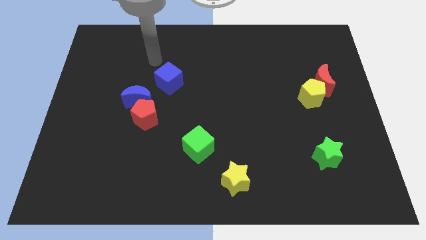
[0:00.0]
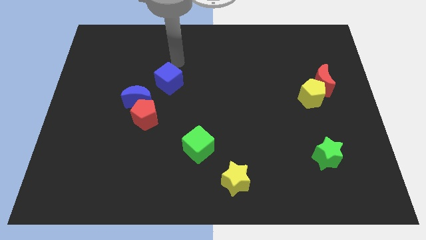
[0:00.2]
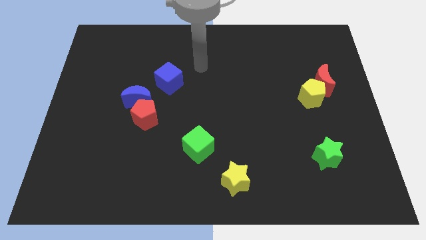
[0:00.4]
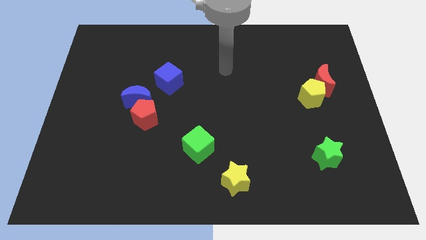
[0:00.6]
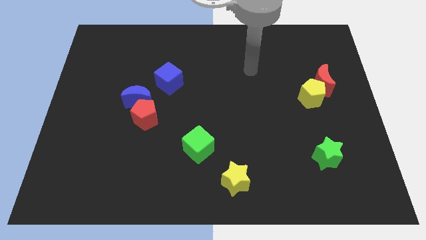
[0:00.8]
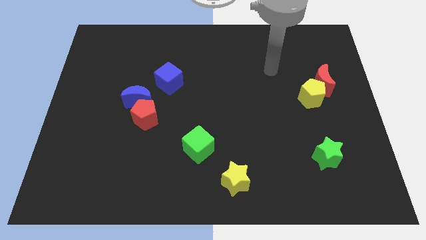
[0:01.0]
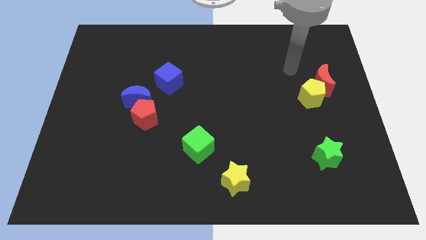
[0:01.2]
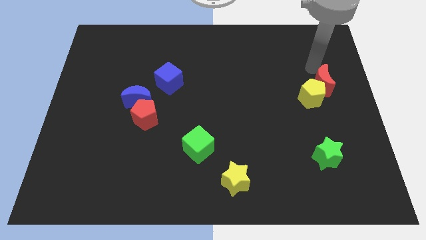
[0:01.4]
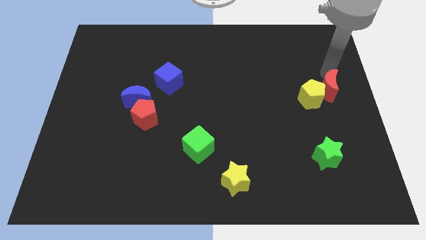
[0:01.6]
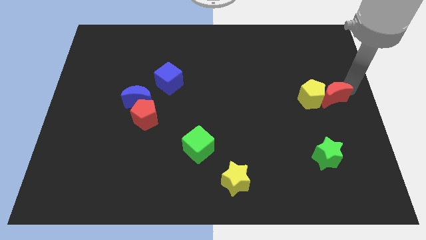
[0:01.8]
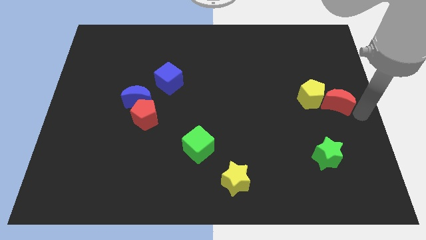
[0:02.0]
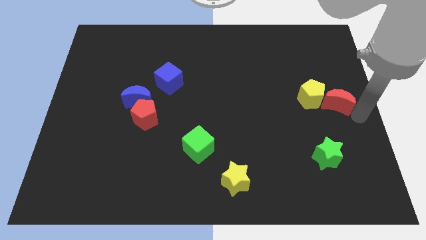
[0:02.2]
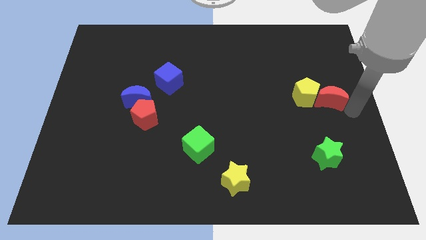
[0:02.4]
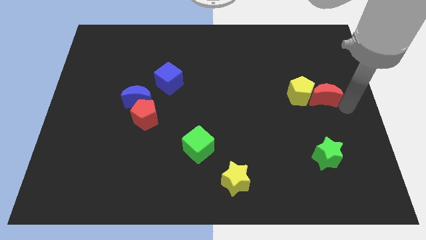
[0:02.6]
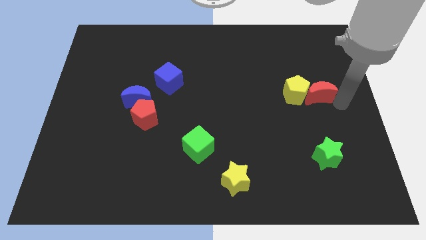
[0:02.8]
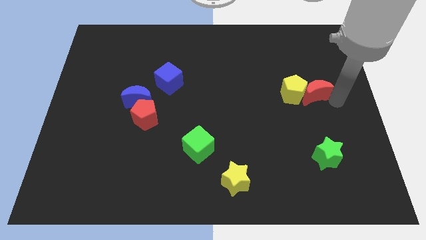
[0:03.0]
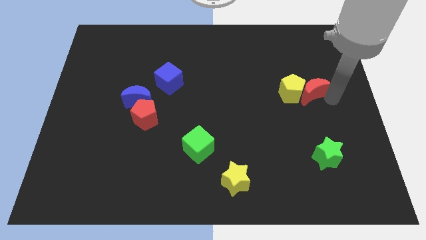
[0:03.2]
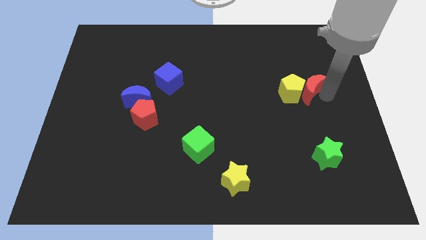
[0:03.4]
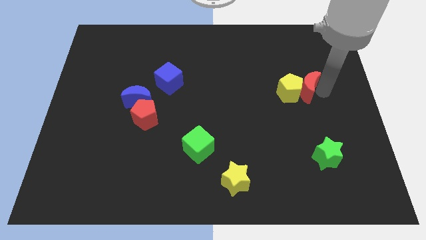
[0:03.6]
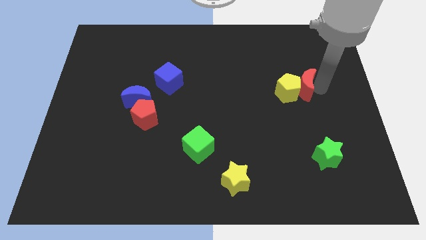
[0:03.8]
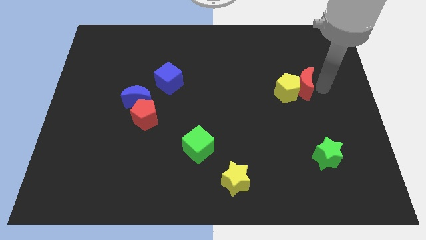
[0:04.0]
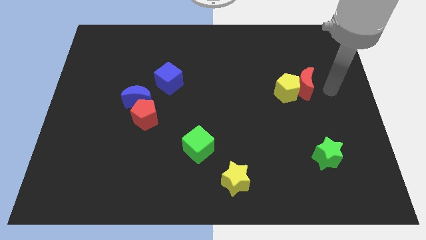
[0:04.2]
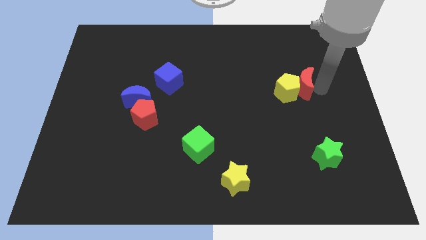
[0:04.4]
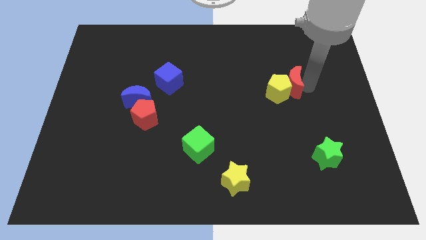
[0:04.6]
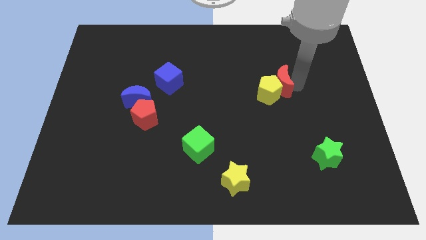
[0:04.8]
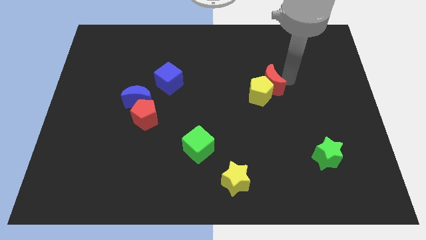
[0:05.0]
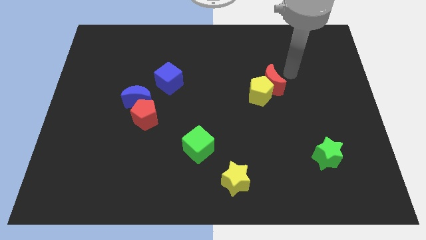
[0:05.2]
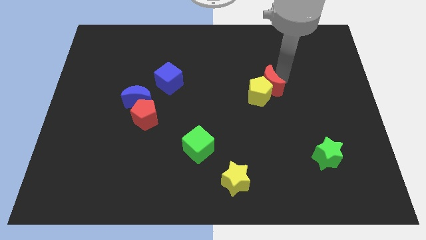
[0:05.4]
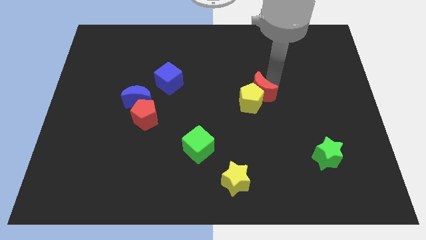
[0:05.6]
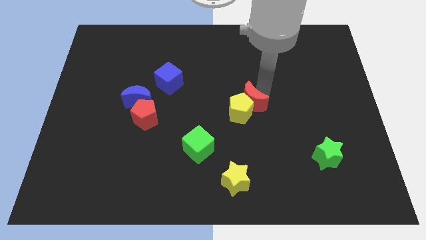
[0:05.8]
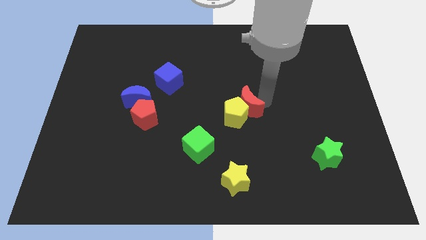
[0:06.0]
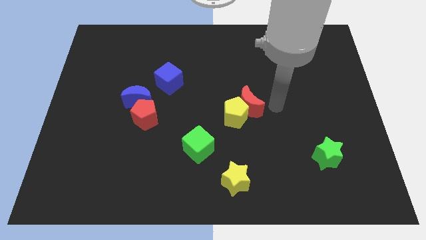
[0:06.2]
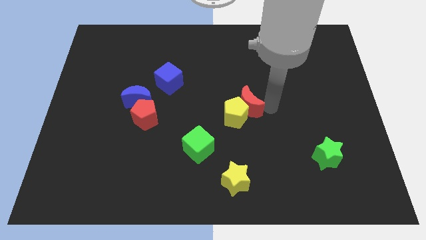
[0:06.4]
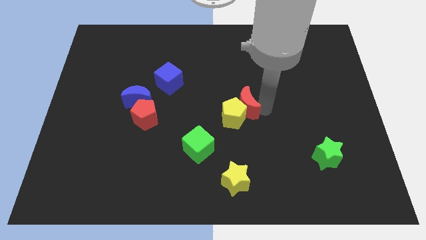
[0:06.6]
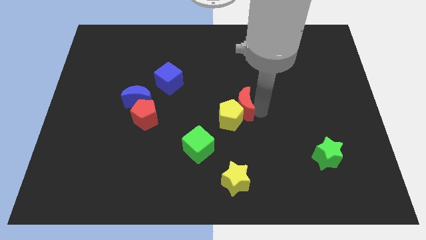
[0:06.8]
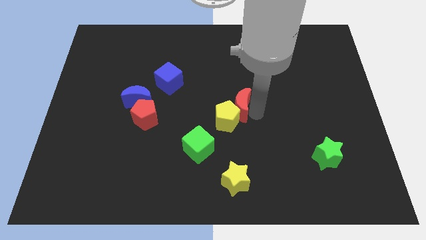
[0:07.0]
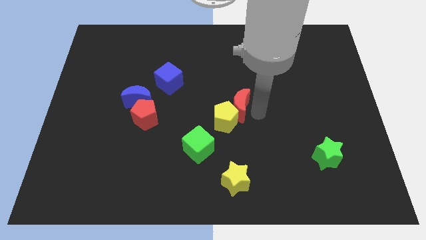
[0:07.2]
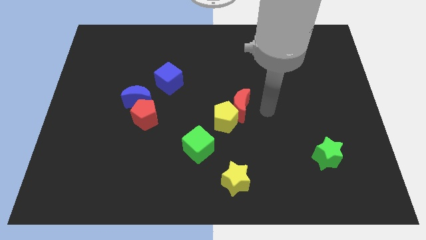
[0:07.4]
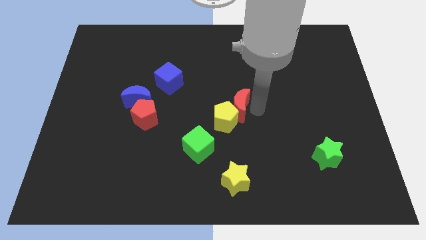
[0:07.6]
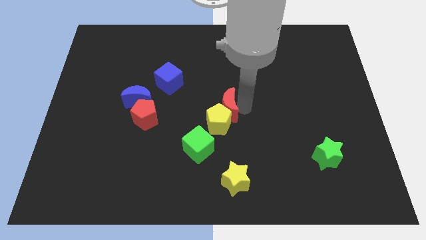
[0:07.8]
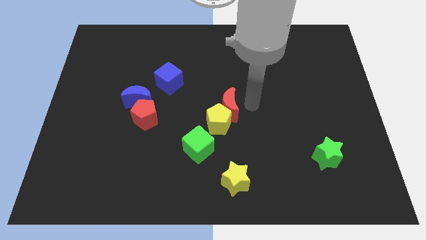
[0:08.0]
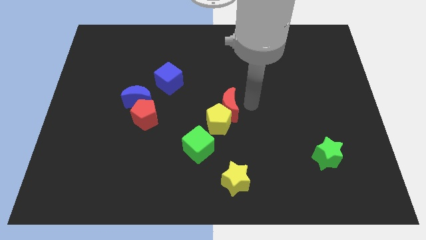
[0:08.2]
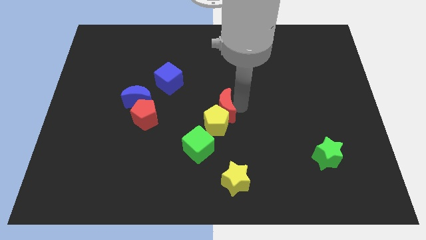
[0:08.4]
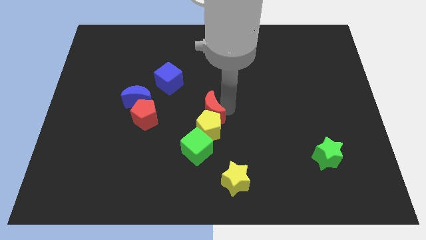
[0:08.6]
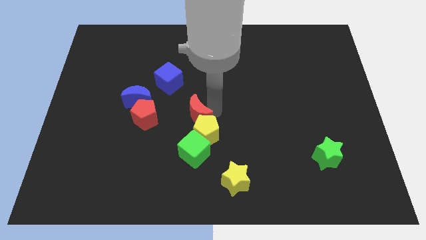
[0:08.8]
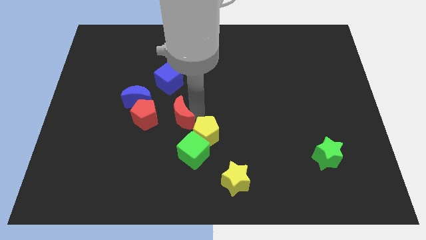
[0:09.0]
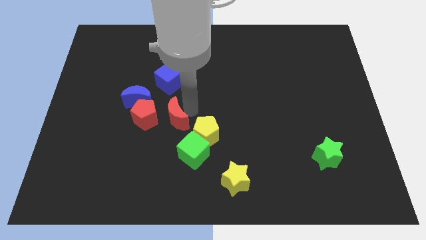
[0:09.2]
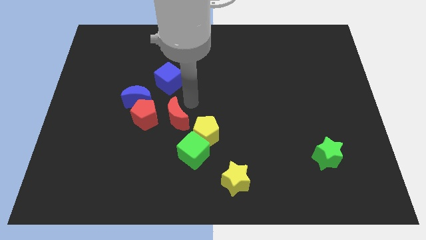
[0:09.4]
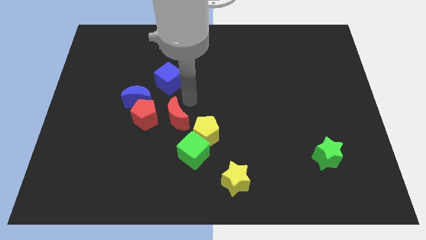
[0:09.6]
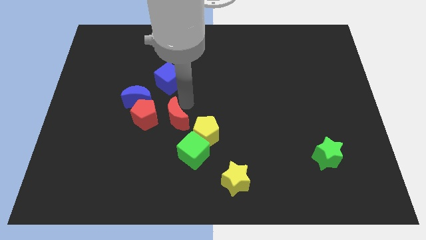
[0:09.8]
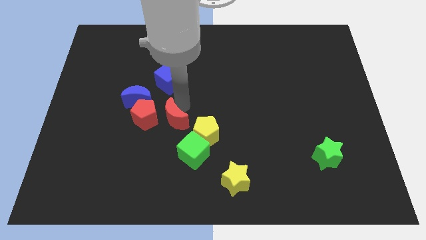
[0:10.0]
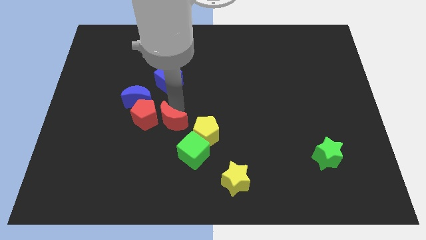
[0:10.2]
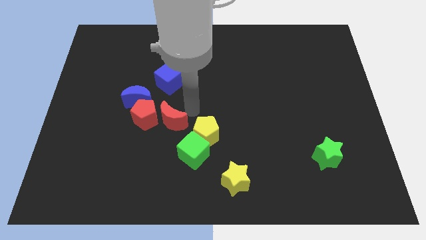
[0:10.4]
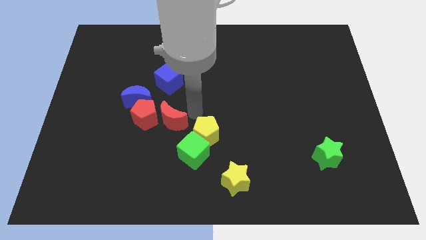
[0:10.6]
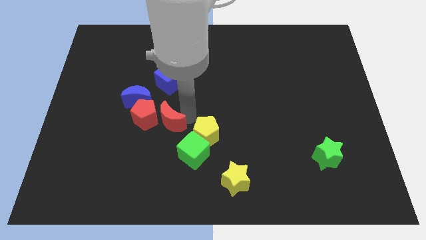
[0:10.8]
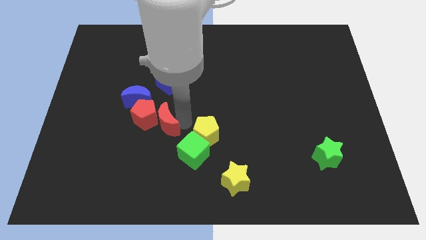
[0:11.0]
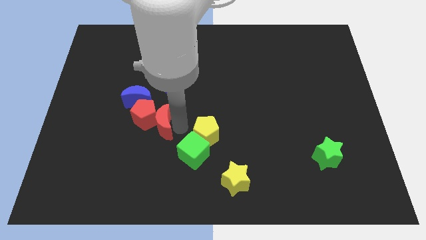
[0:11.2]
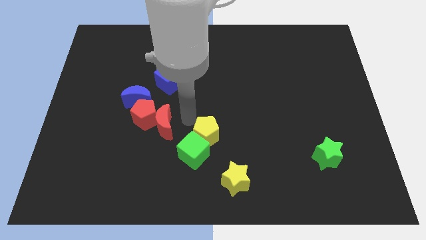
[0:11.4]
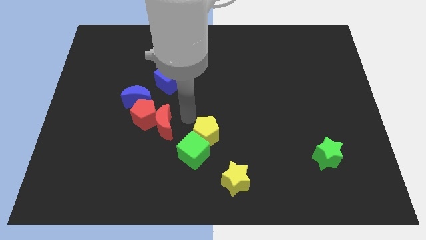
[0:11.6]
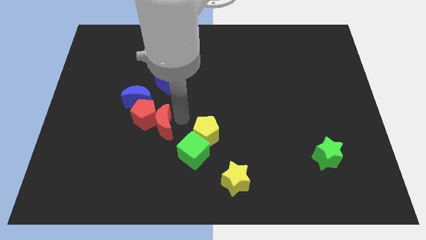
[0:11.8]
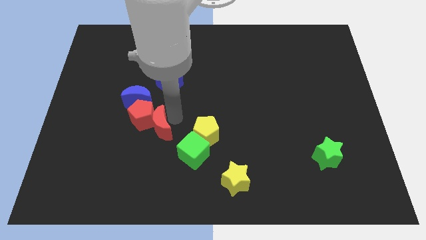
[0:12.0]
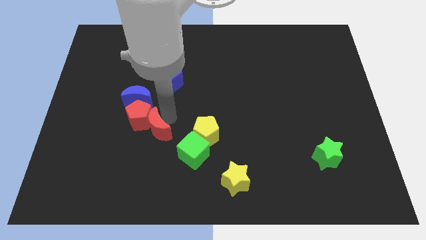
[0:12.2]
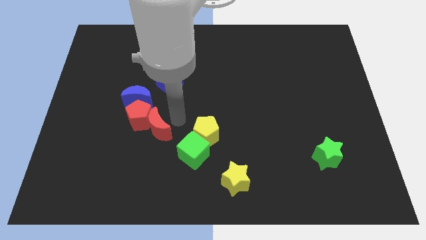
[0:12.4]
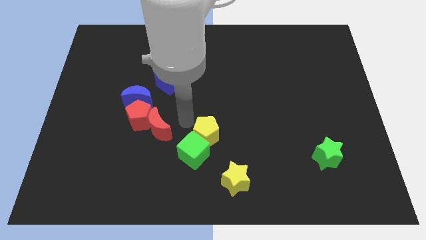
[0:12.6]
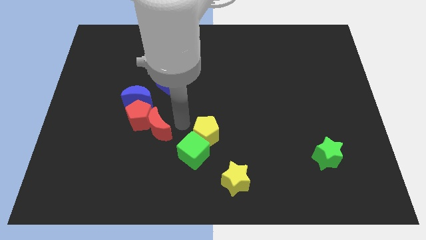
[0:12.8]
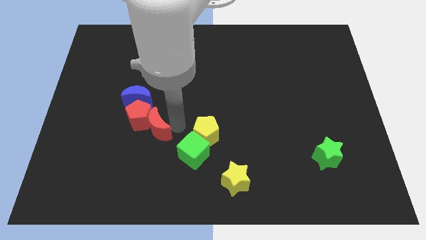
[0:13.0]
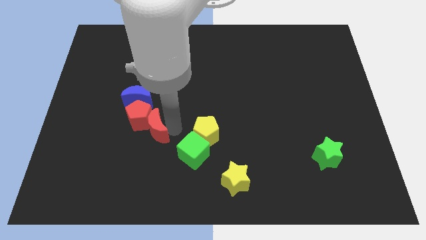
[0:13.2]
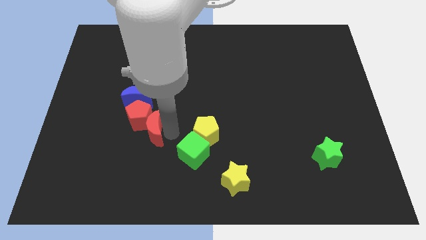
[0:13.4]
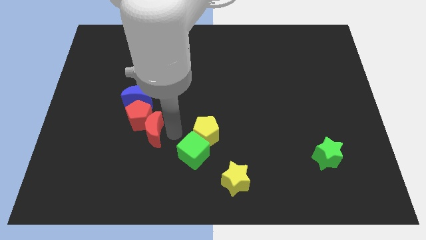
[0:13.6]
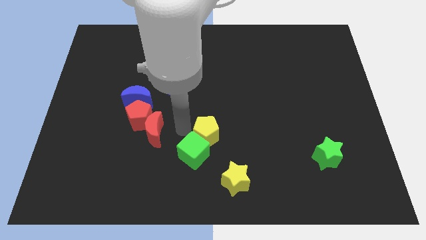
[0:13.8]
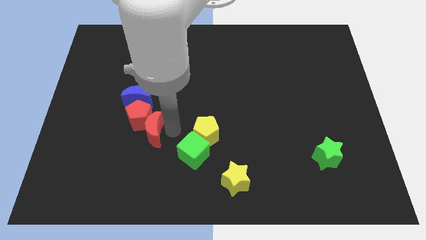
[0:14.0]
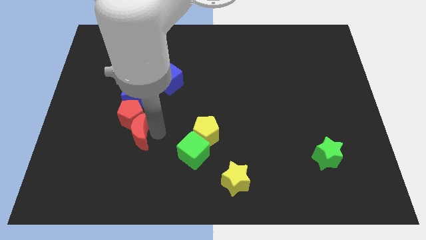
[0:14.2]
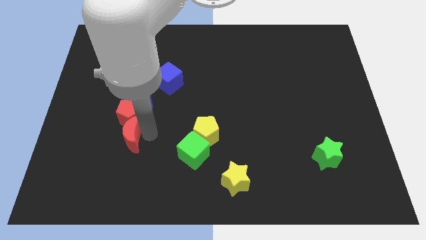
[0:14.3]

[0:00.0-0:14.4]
slide the red moon to the bottom left of the red pentagon
